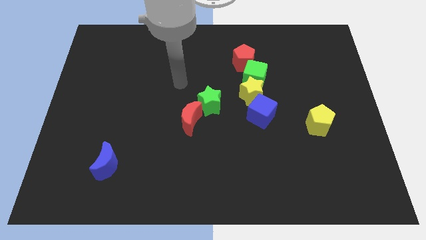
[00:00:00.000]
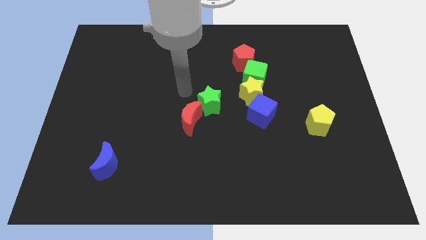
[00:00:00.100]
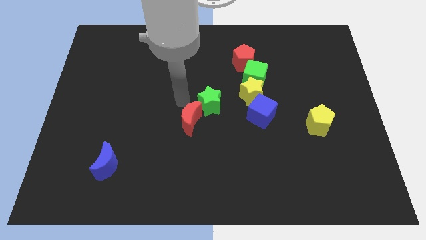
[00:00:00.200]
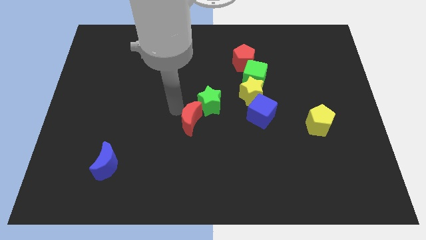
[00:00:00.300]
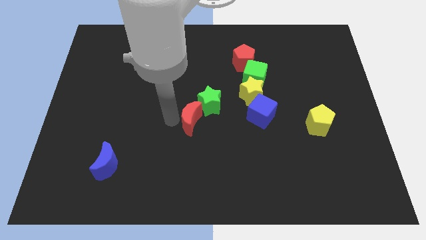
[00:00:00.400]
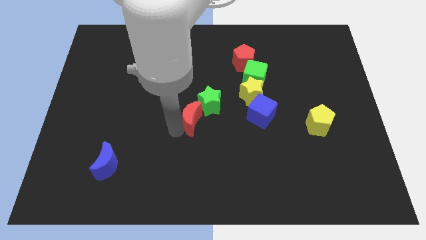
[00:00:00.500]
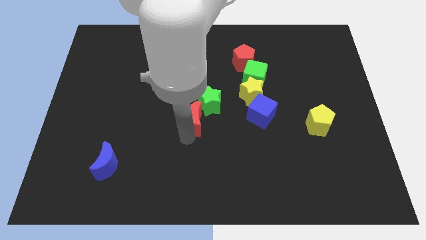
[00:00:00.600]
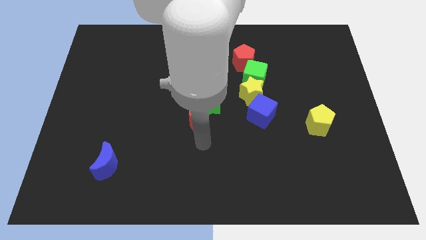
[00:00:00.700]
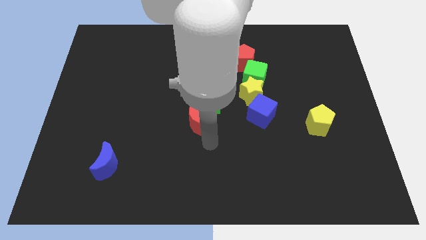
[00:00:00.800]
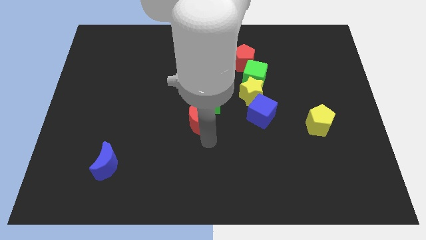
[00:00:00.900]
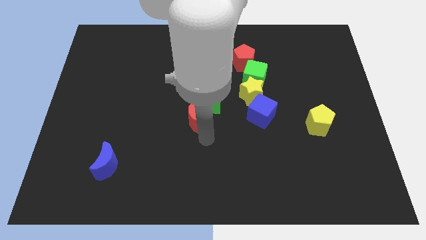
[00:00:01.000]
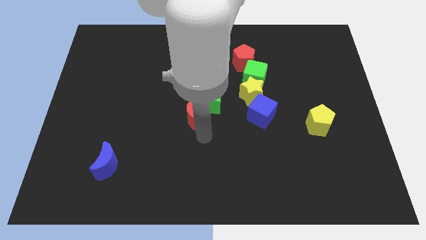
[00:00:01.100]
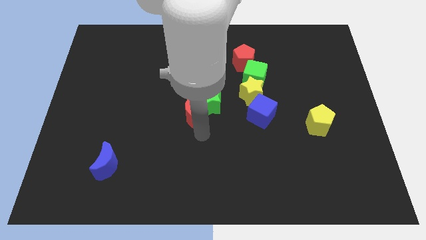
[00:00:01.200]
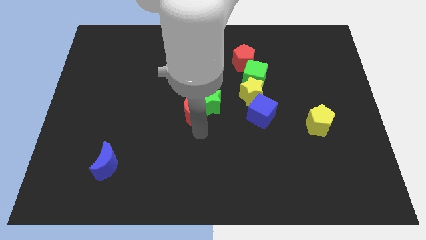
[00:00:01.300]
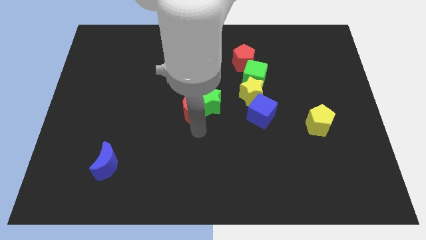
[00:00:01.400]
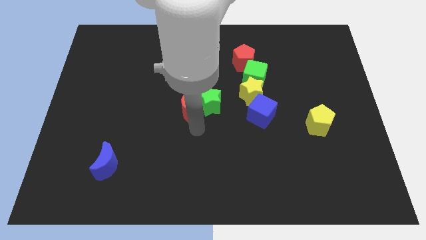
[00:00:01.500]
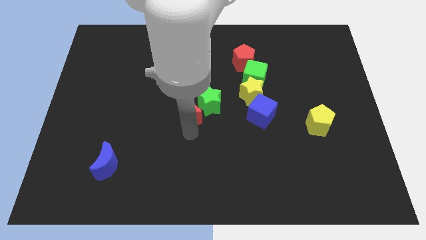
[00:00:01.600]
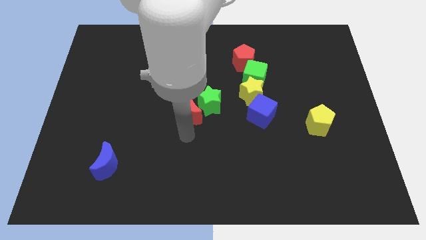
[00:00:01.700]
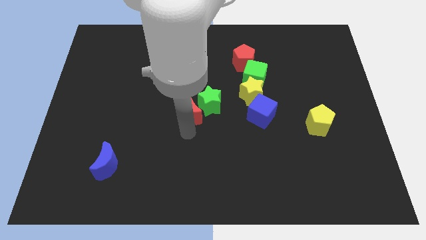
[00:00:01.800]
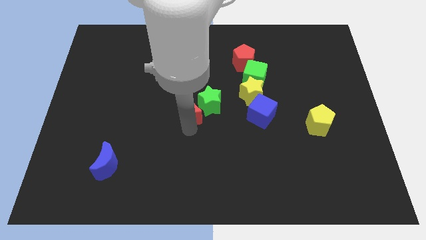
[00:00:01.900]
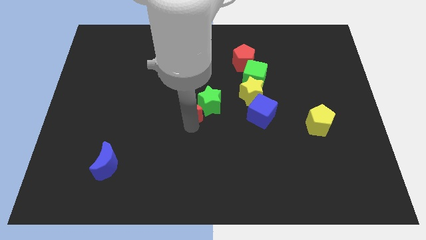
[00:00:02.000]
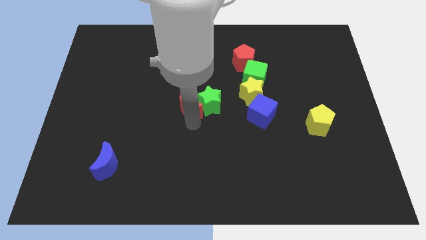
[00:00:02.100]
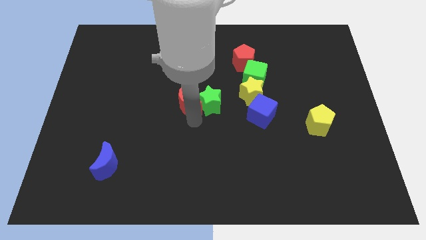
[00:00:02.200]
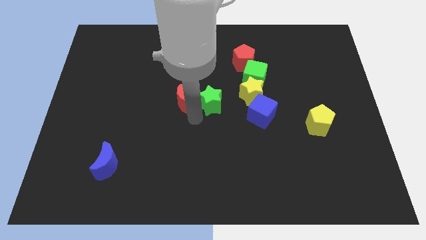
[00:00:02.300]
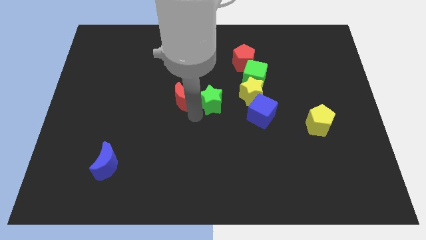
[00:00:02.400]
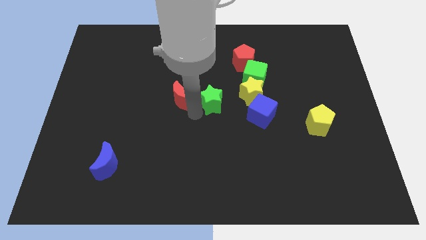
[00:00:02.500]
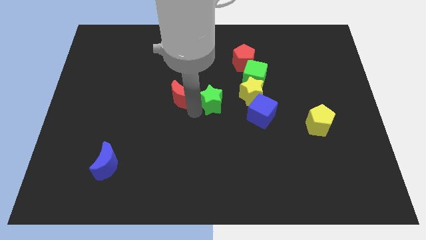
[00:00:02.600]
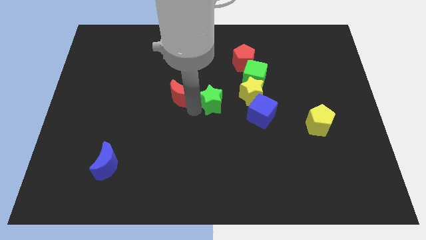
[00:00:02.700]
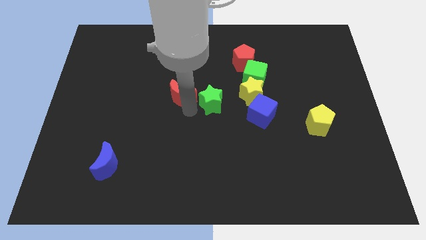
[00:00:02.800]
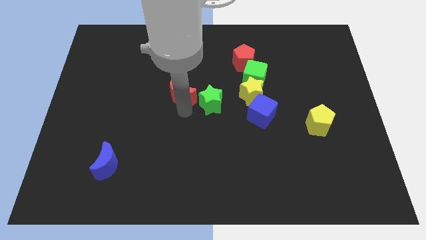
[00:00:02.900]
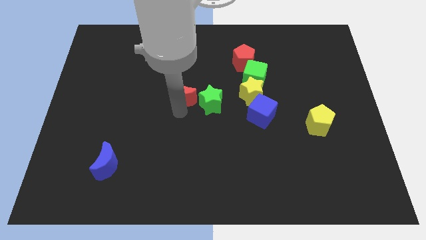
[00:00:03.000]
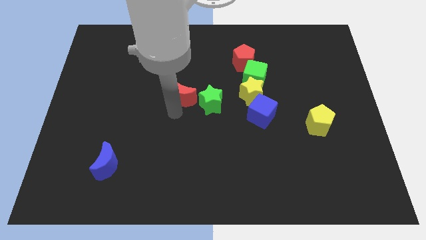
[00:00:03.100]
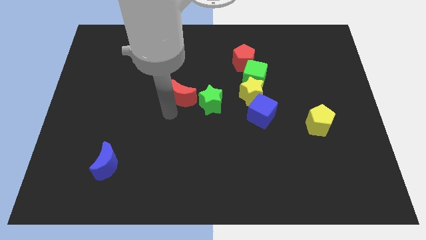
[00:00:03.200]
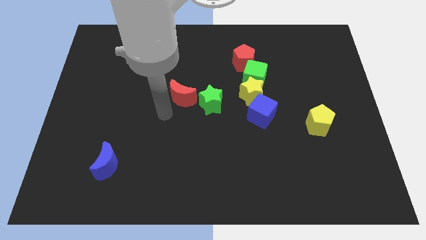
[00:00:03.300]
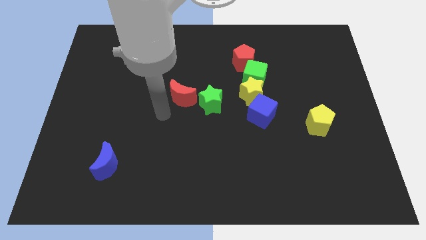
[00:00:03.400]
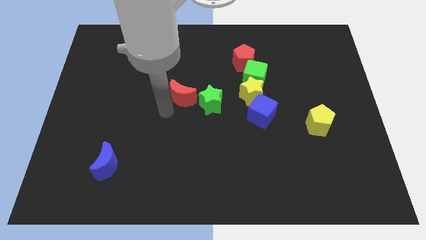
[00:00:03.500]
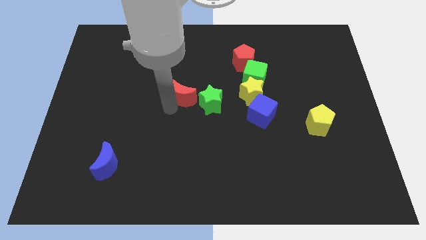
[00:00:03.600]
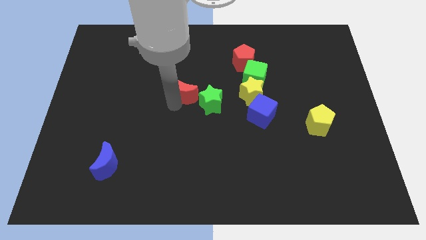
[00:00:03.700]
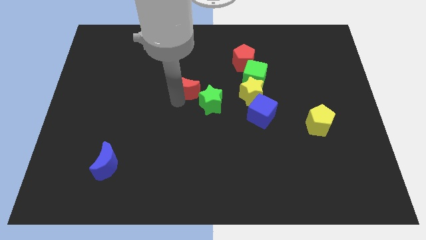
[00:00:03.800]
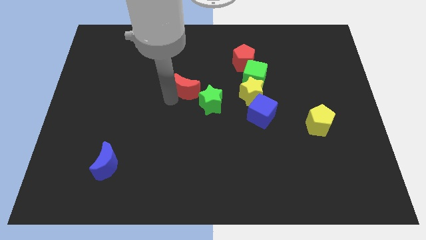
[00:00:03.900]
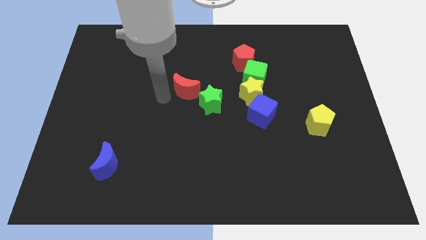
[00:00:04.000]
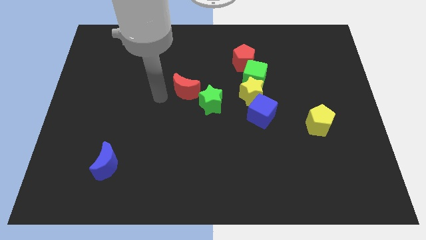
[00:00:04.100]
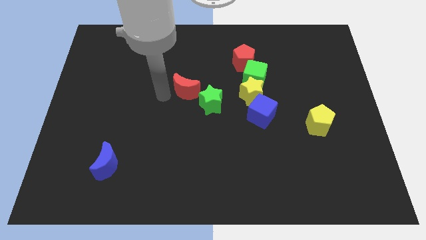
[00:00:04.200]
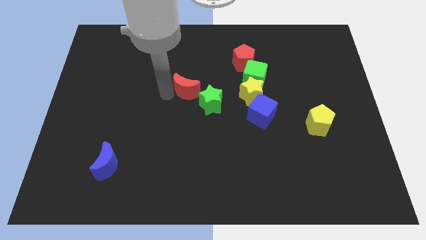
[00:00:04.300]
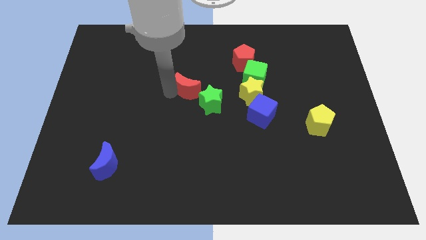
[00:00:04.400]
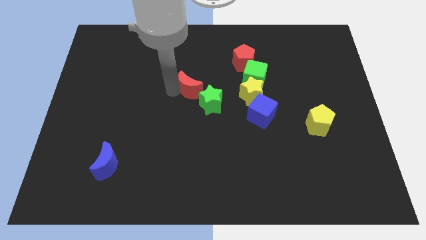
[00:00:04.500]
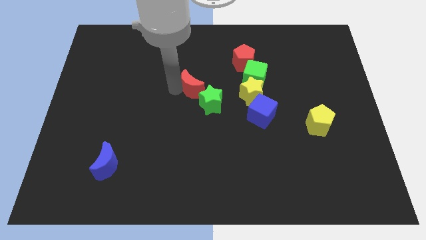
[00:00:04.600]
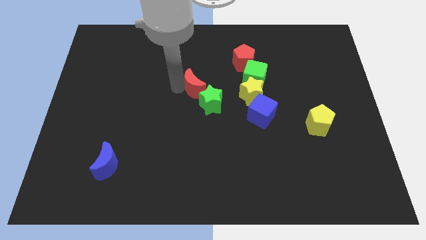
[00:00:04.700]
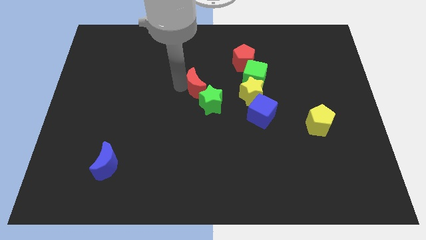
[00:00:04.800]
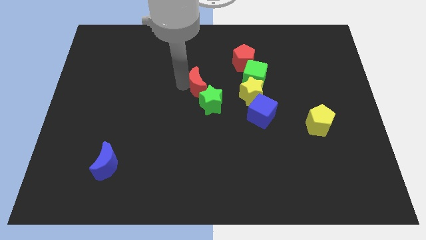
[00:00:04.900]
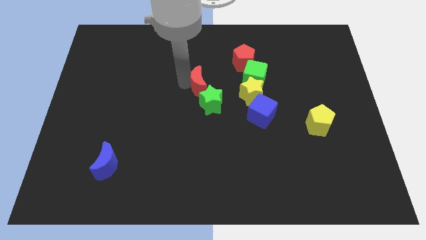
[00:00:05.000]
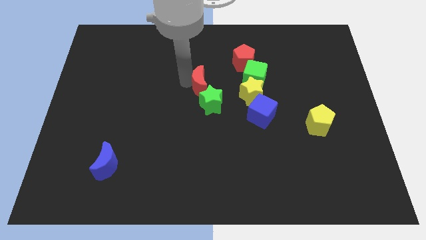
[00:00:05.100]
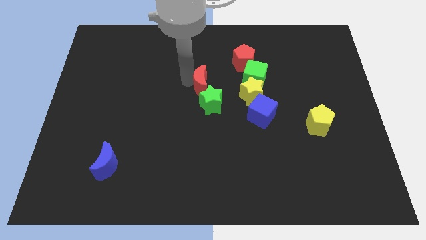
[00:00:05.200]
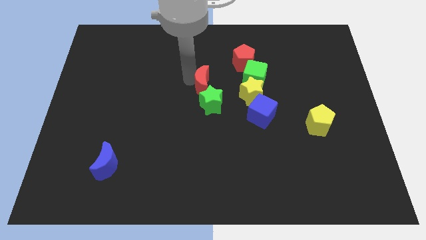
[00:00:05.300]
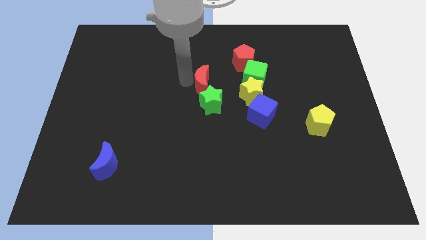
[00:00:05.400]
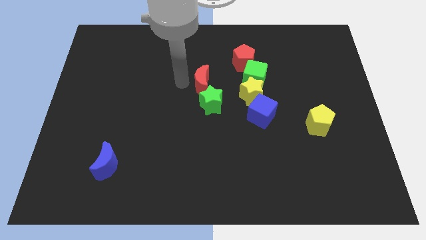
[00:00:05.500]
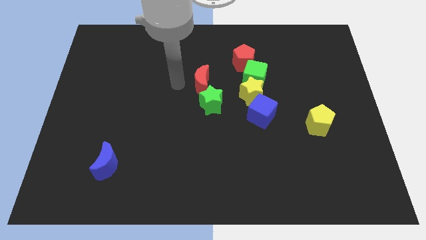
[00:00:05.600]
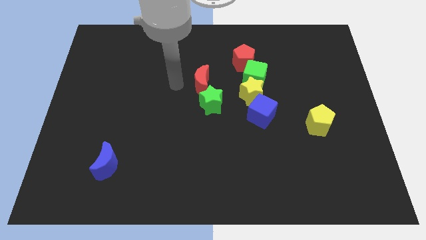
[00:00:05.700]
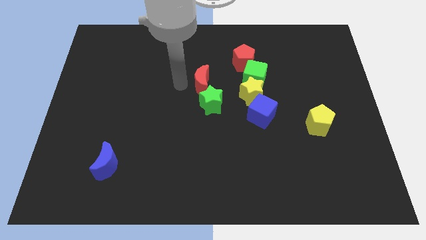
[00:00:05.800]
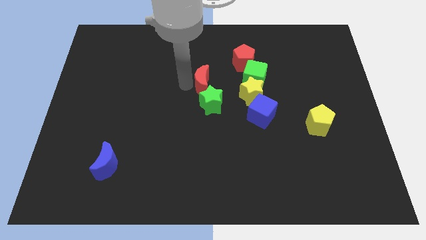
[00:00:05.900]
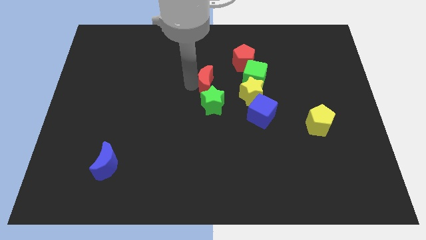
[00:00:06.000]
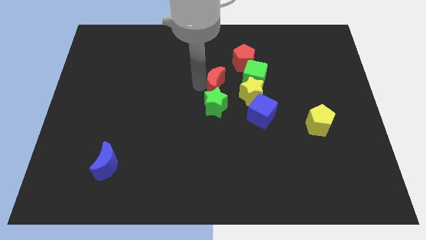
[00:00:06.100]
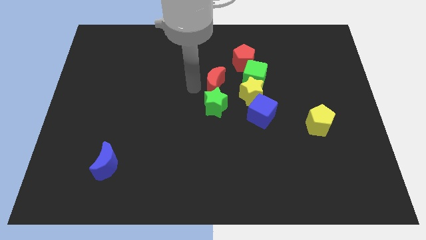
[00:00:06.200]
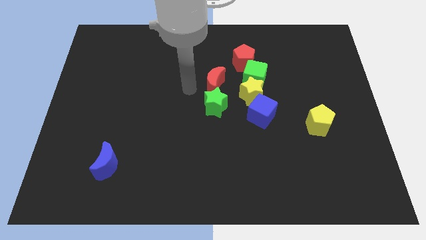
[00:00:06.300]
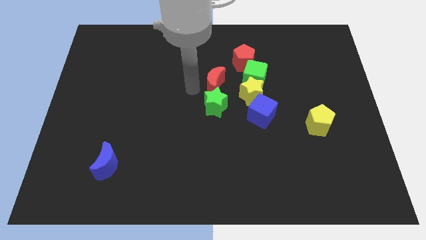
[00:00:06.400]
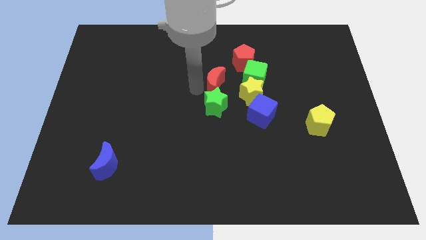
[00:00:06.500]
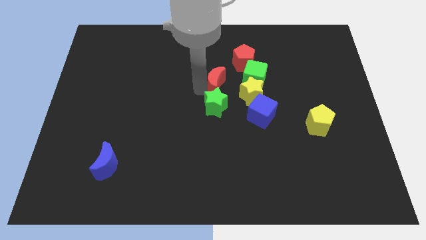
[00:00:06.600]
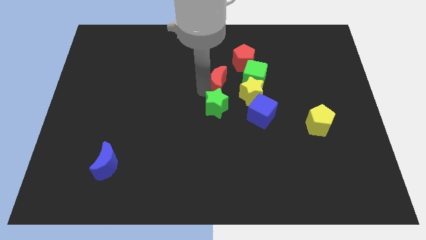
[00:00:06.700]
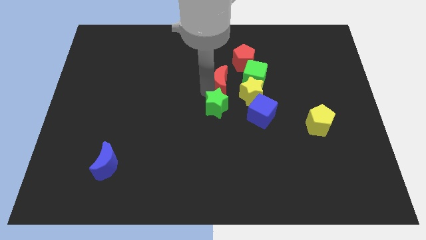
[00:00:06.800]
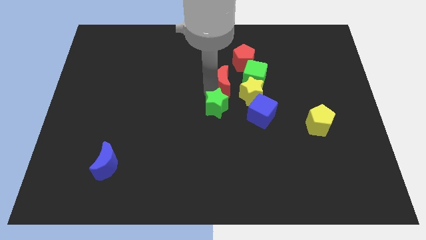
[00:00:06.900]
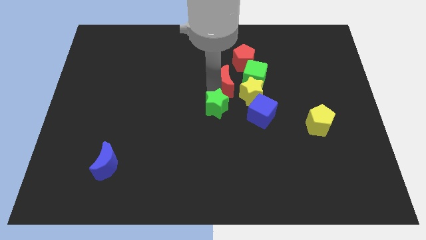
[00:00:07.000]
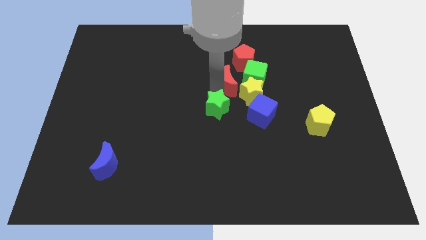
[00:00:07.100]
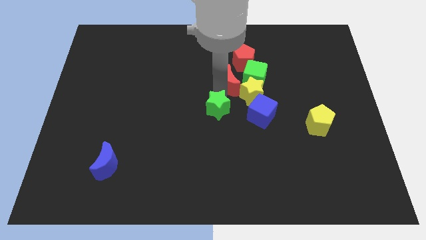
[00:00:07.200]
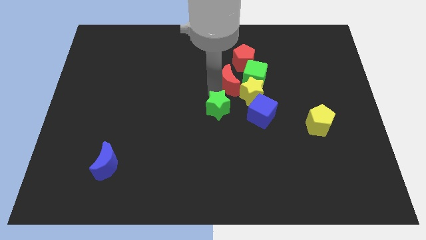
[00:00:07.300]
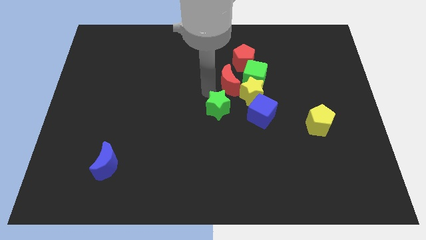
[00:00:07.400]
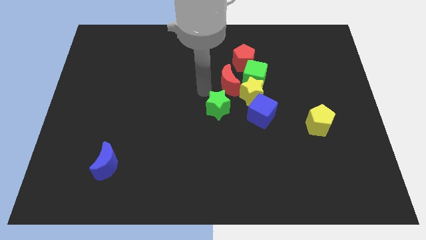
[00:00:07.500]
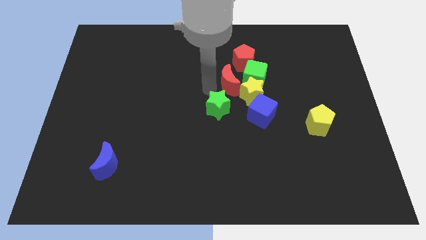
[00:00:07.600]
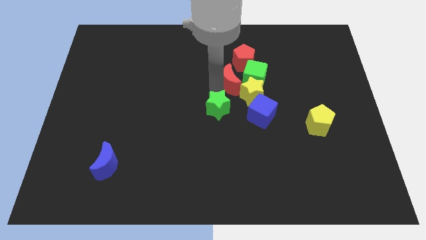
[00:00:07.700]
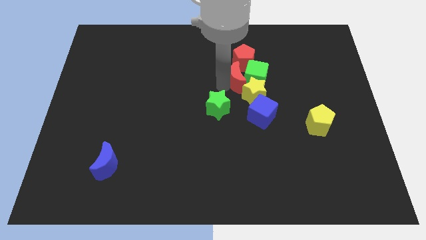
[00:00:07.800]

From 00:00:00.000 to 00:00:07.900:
slide the red moon next to the green cube

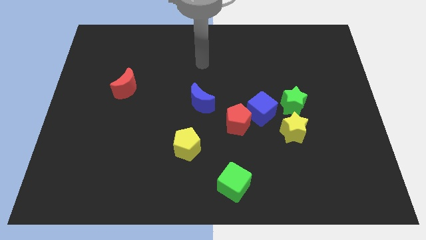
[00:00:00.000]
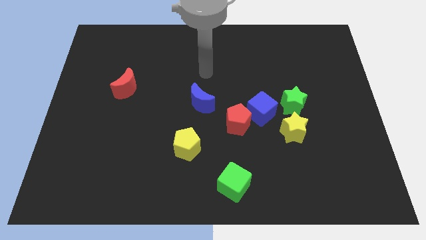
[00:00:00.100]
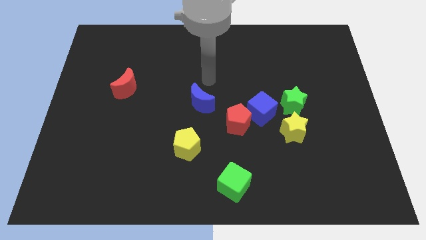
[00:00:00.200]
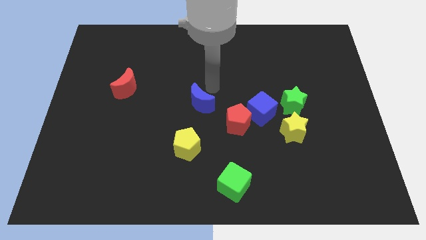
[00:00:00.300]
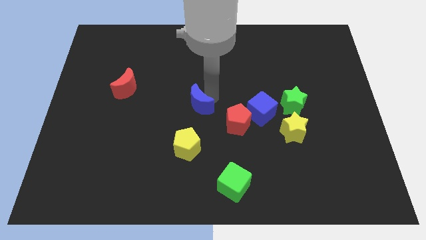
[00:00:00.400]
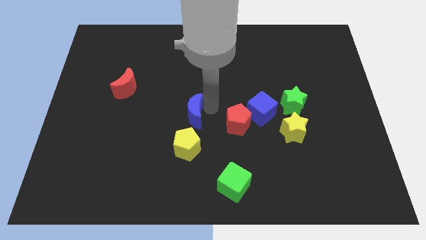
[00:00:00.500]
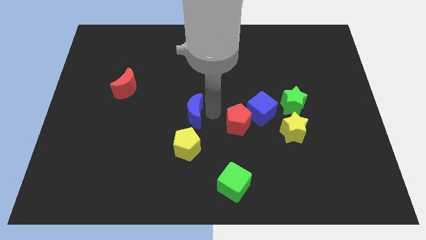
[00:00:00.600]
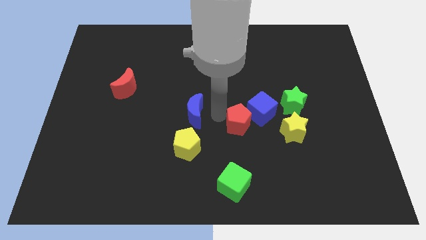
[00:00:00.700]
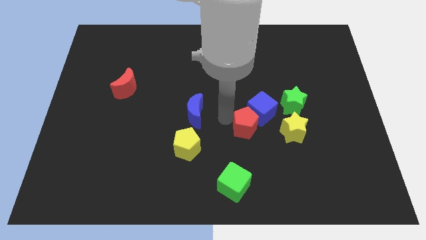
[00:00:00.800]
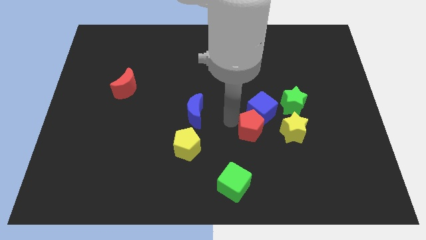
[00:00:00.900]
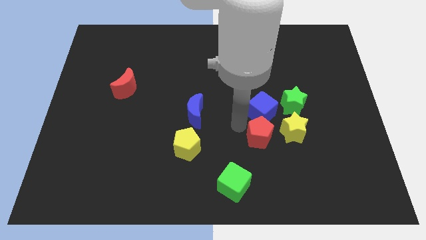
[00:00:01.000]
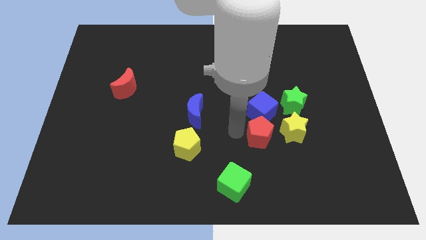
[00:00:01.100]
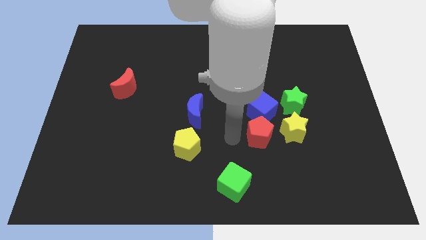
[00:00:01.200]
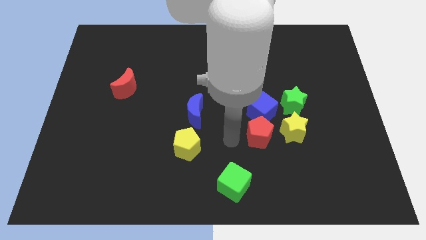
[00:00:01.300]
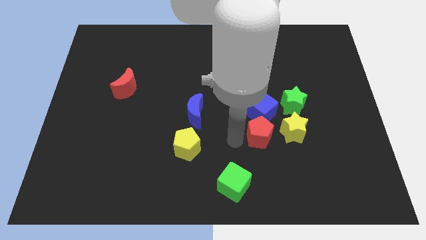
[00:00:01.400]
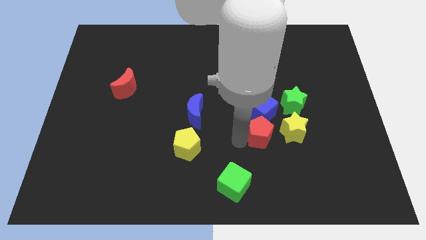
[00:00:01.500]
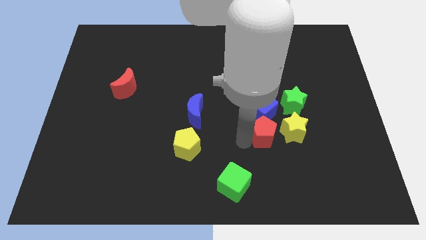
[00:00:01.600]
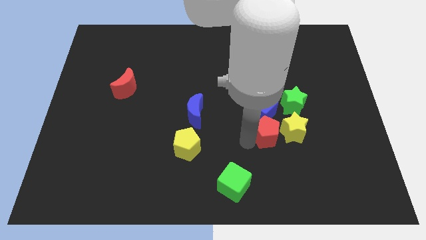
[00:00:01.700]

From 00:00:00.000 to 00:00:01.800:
put the red pentagon next to the yellow star
